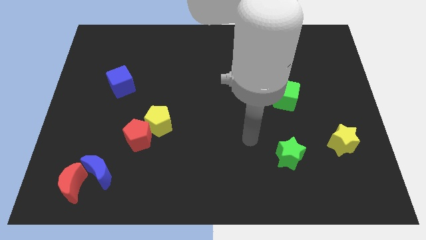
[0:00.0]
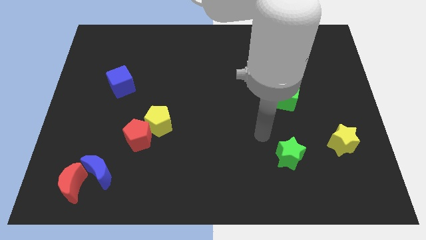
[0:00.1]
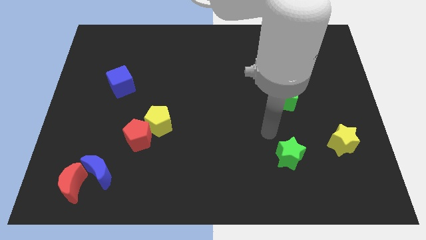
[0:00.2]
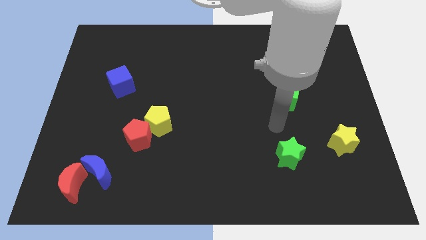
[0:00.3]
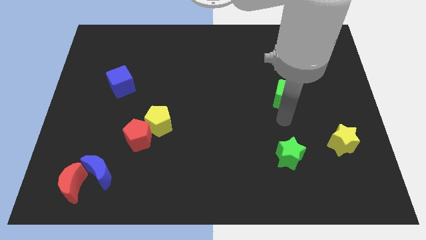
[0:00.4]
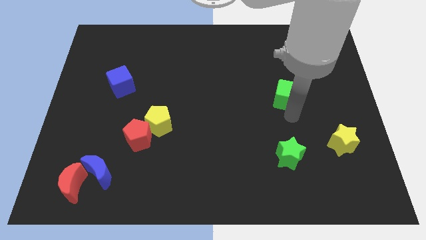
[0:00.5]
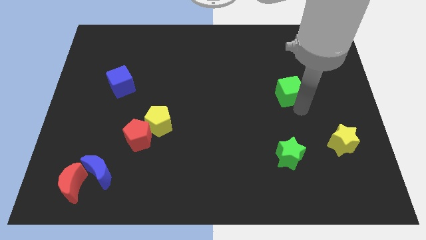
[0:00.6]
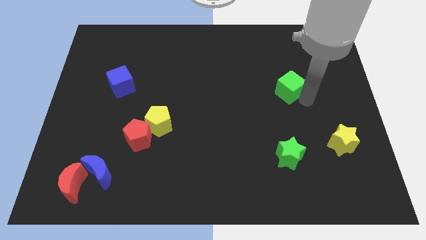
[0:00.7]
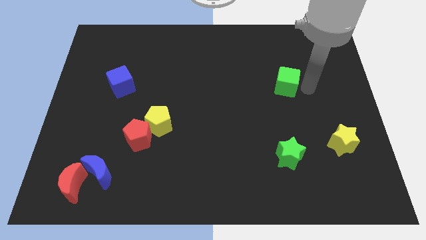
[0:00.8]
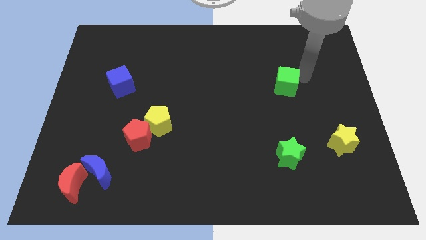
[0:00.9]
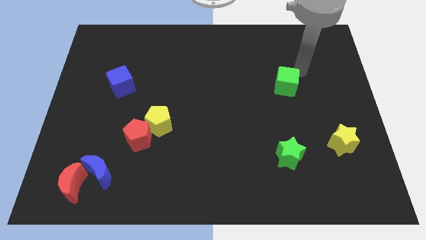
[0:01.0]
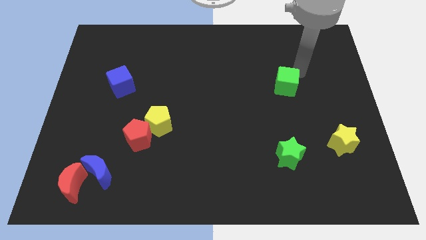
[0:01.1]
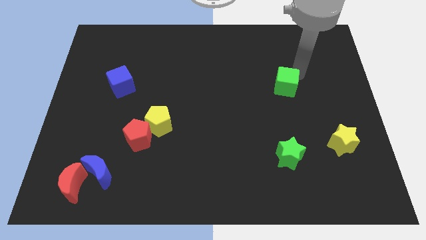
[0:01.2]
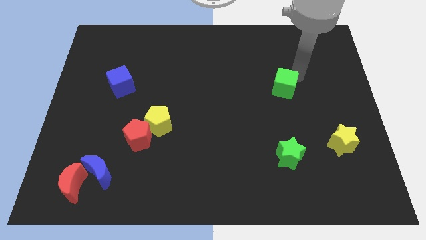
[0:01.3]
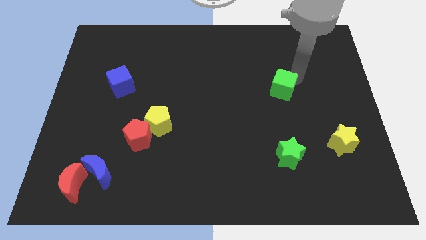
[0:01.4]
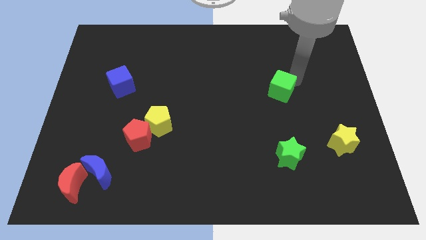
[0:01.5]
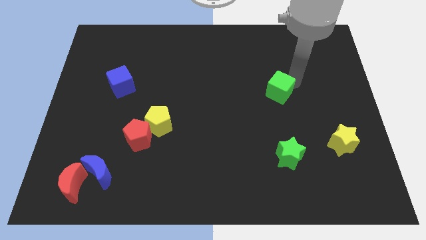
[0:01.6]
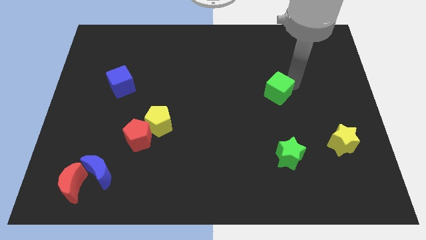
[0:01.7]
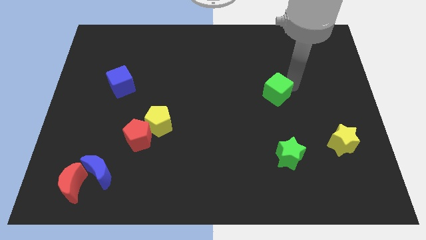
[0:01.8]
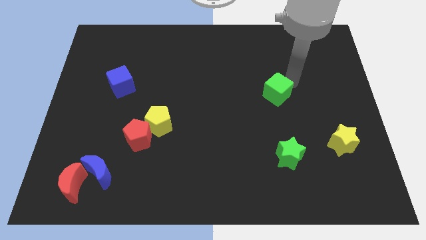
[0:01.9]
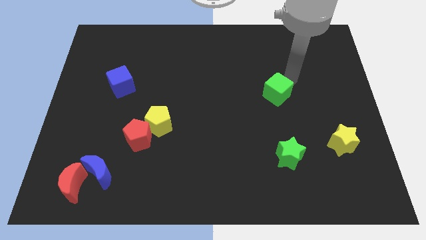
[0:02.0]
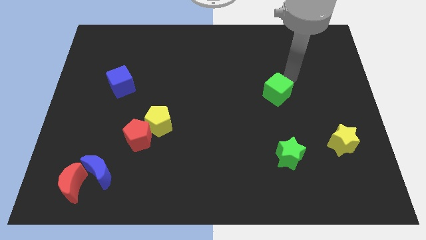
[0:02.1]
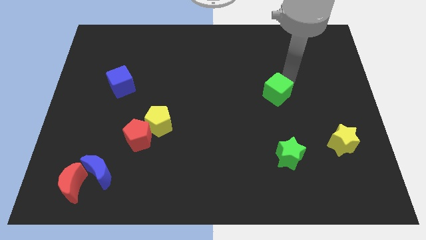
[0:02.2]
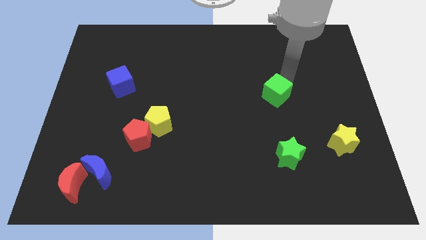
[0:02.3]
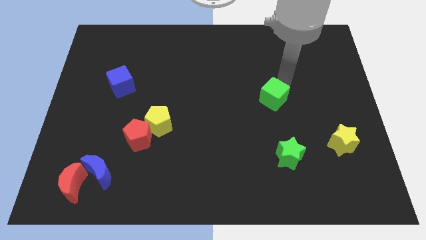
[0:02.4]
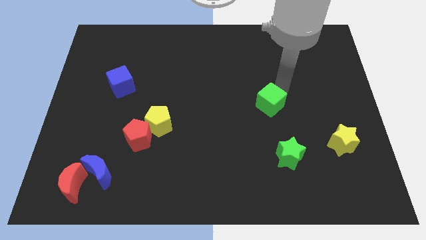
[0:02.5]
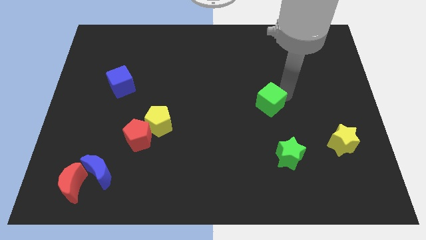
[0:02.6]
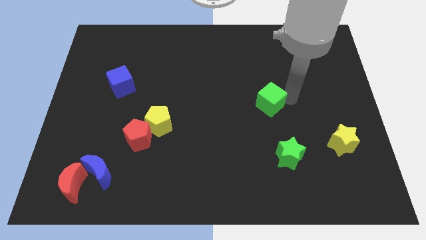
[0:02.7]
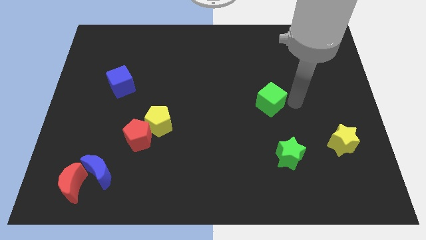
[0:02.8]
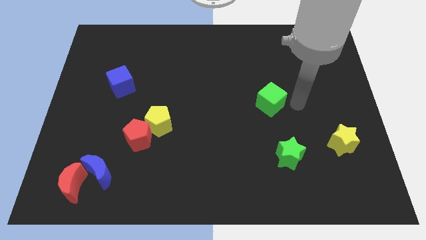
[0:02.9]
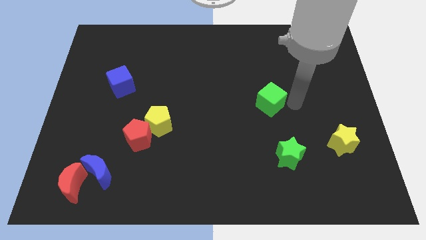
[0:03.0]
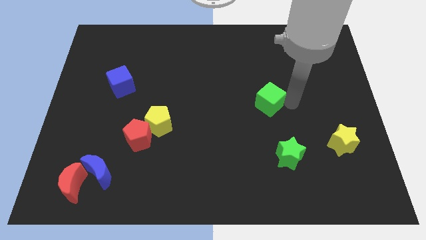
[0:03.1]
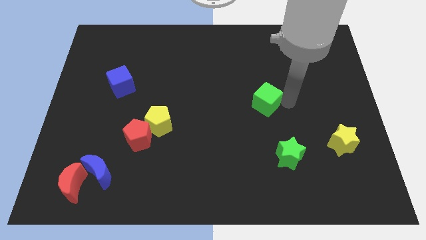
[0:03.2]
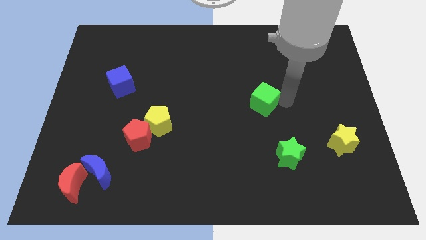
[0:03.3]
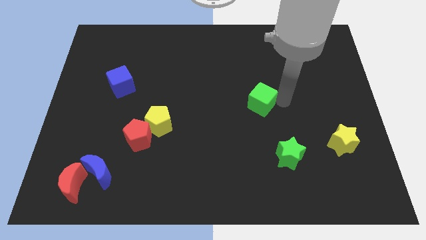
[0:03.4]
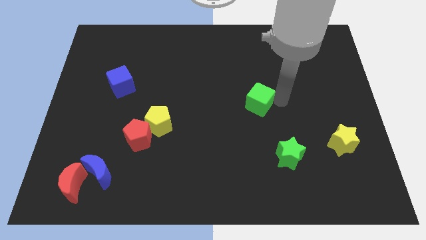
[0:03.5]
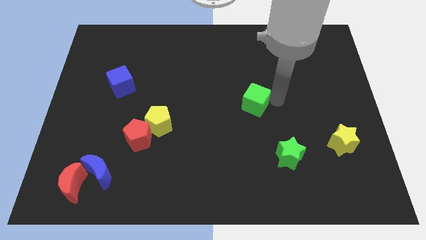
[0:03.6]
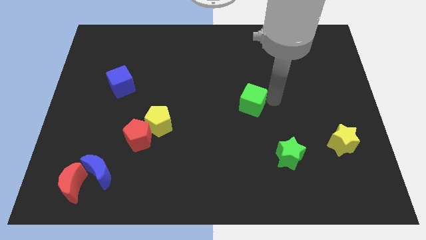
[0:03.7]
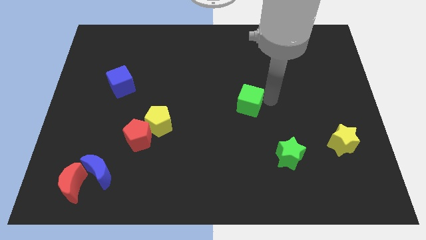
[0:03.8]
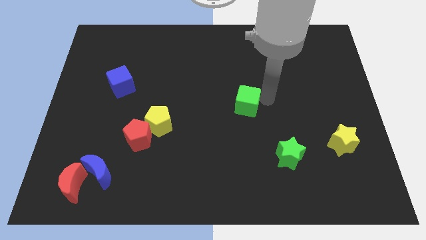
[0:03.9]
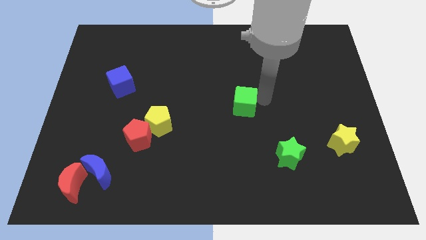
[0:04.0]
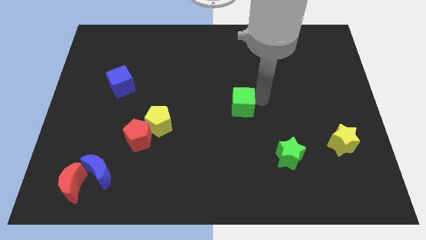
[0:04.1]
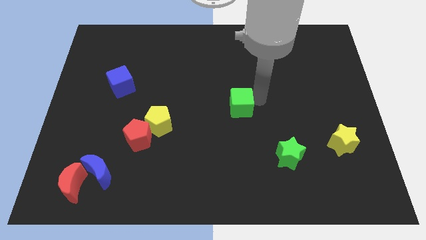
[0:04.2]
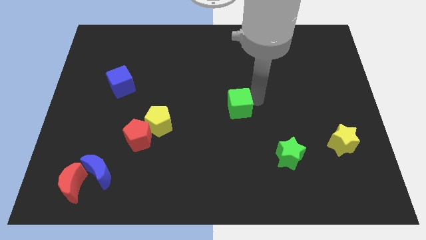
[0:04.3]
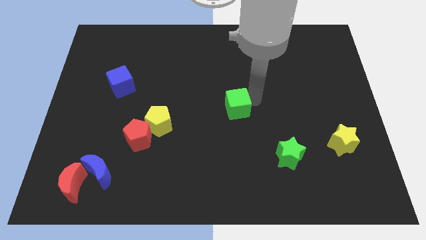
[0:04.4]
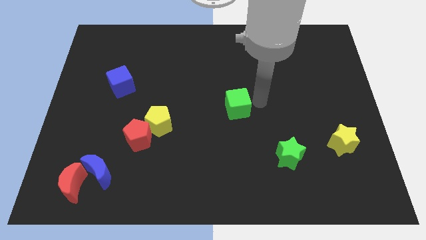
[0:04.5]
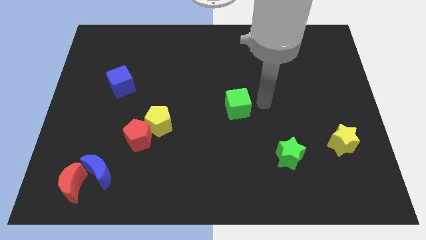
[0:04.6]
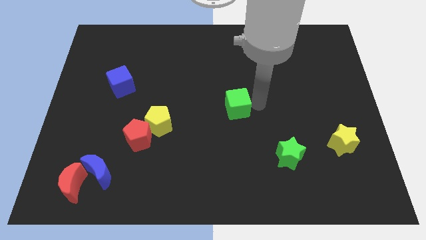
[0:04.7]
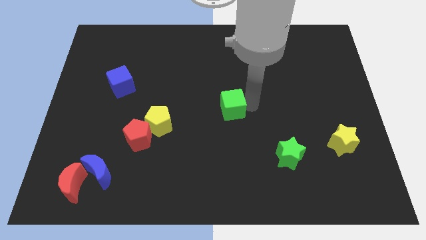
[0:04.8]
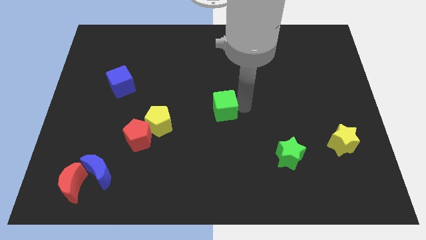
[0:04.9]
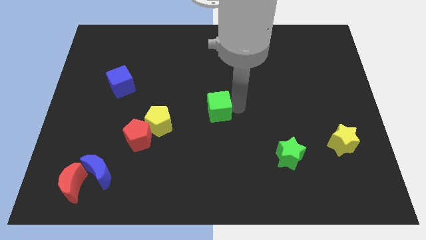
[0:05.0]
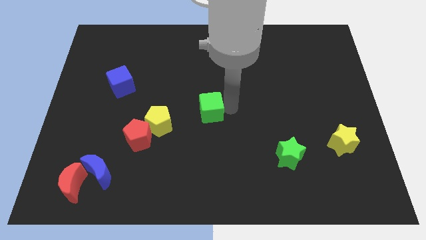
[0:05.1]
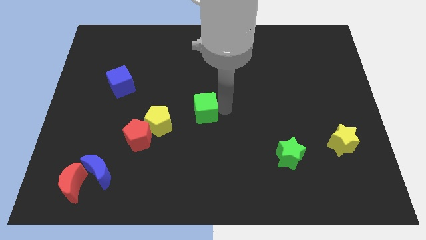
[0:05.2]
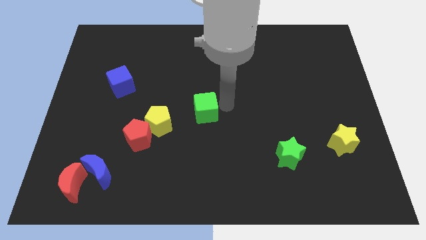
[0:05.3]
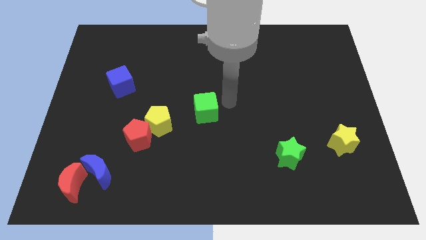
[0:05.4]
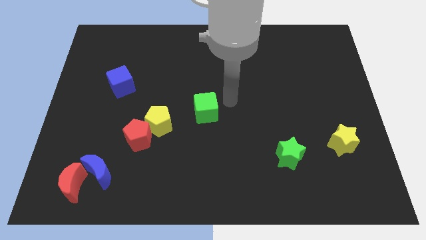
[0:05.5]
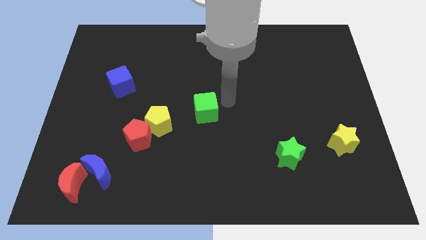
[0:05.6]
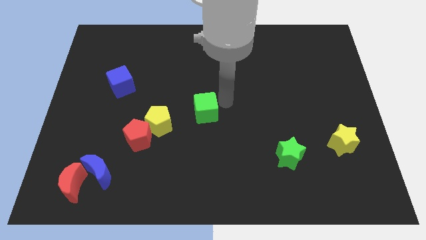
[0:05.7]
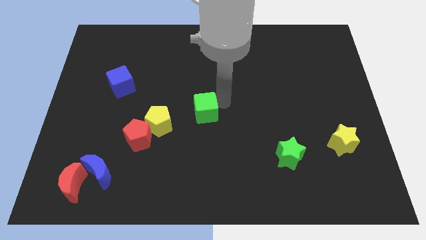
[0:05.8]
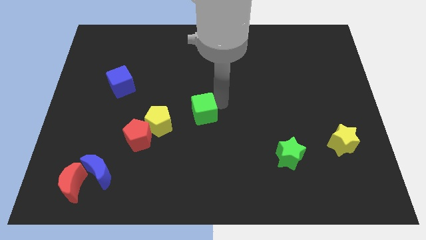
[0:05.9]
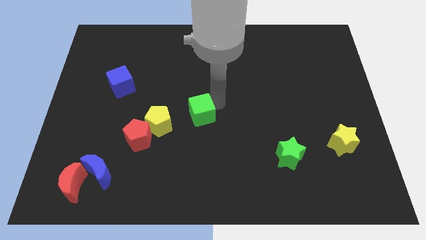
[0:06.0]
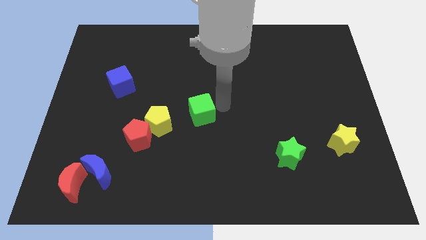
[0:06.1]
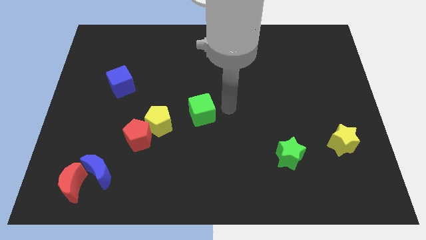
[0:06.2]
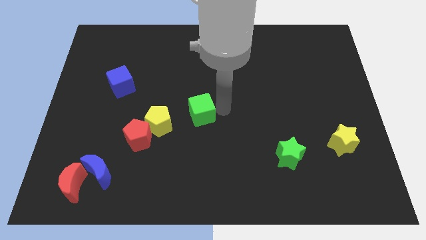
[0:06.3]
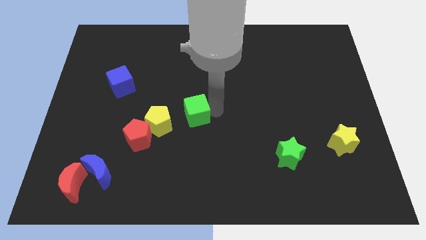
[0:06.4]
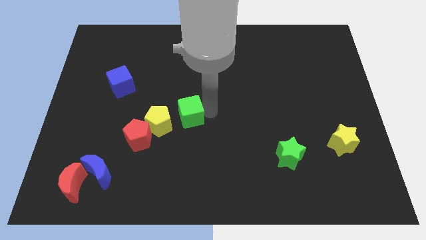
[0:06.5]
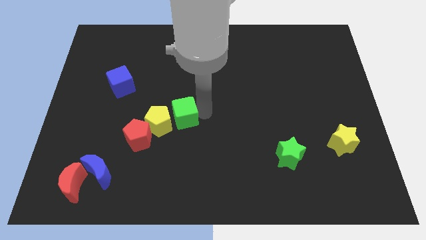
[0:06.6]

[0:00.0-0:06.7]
put the green cube towards the yellow pentagon
